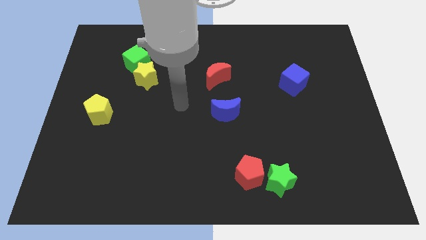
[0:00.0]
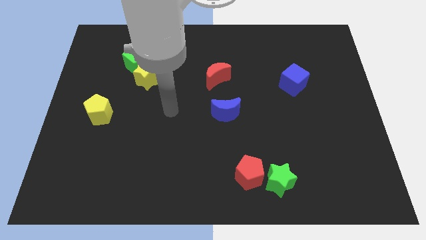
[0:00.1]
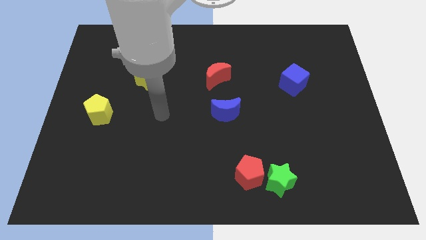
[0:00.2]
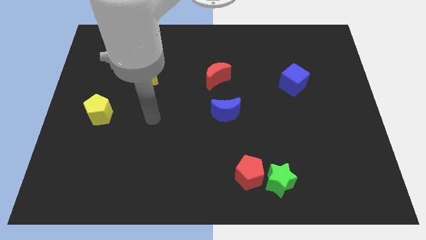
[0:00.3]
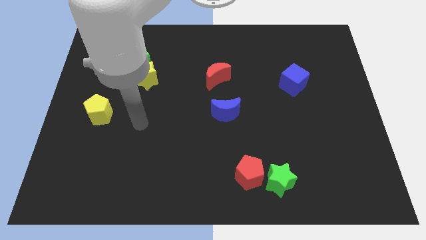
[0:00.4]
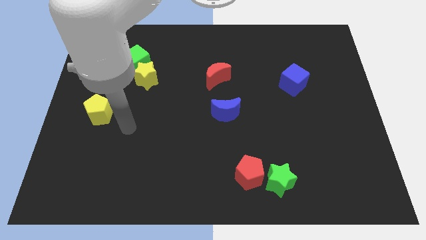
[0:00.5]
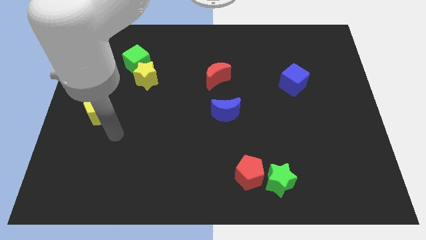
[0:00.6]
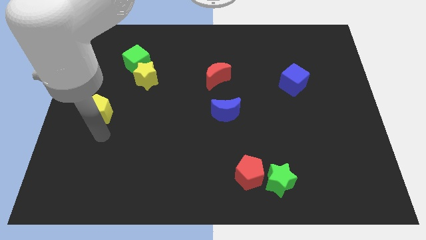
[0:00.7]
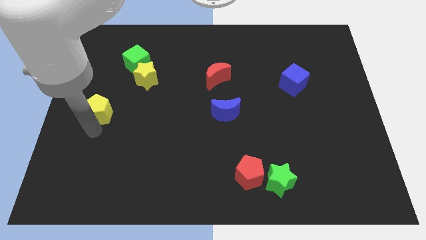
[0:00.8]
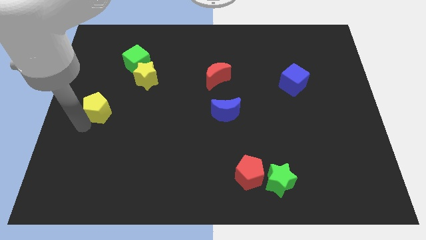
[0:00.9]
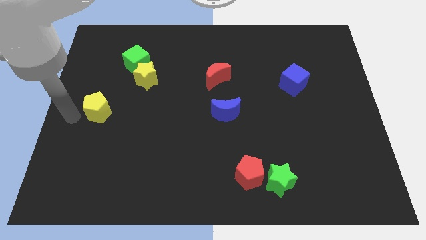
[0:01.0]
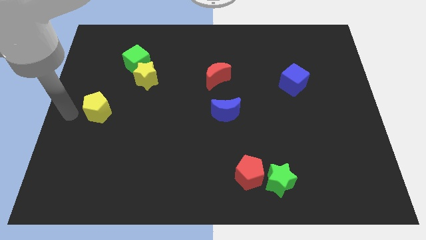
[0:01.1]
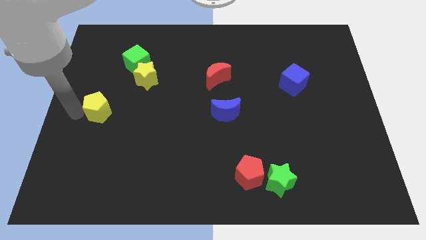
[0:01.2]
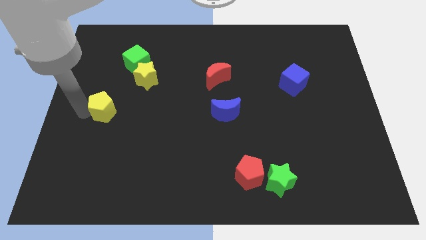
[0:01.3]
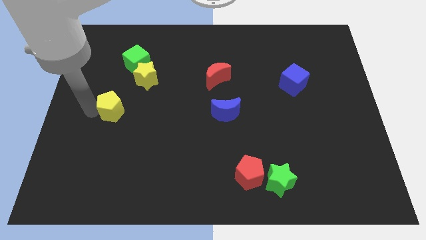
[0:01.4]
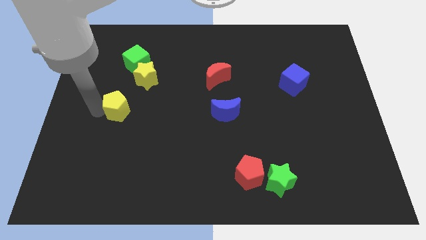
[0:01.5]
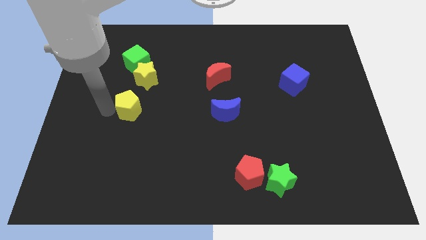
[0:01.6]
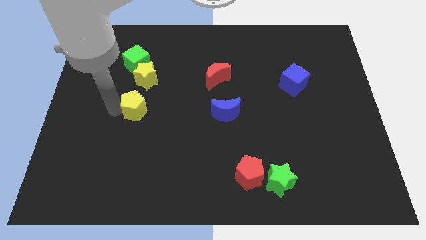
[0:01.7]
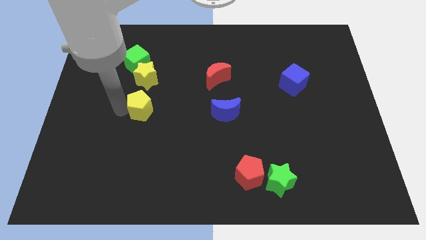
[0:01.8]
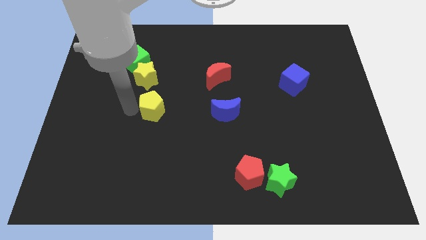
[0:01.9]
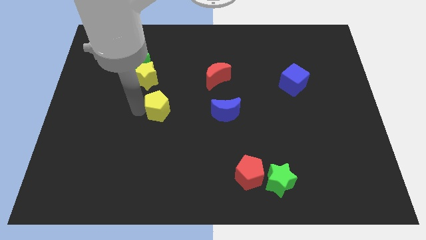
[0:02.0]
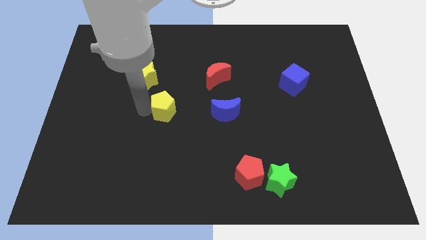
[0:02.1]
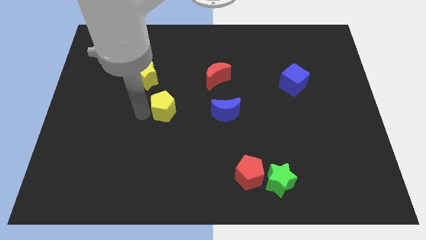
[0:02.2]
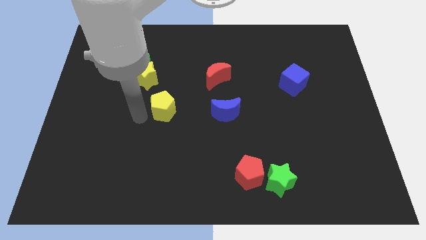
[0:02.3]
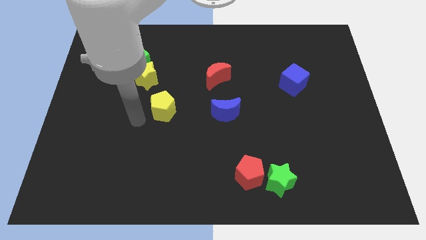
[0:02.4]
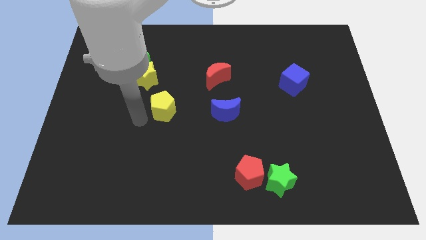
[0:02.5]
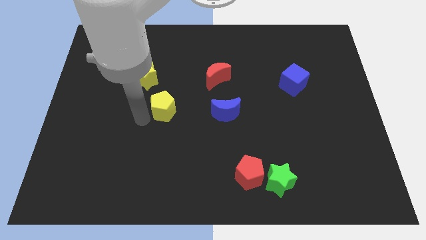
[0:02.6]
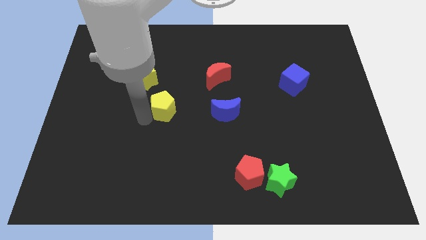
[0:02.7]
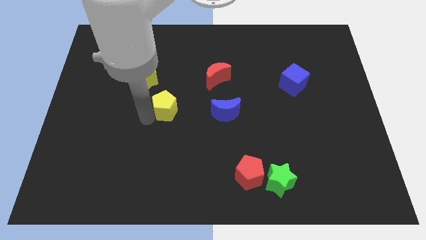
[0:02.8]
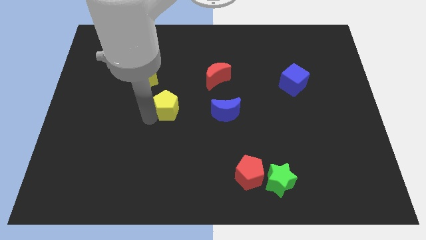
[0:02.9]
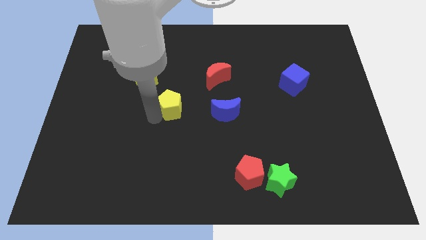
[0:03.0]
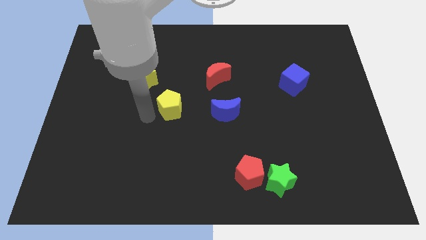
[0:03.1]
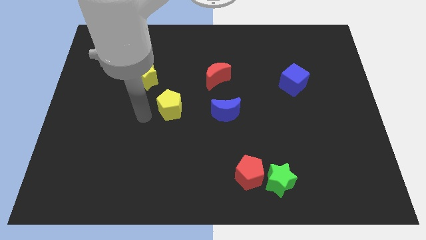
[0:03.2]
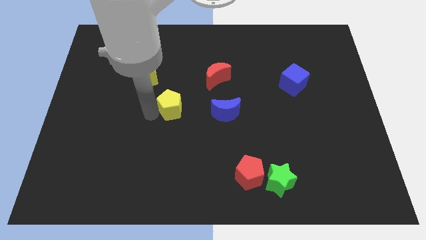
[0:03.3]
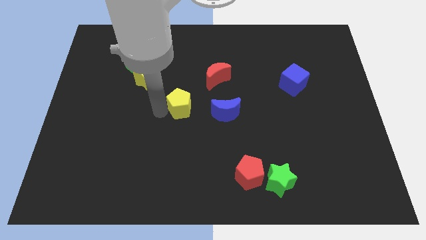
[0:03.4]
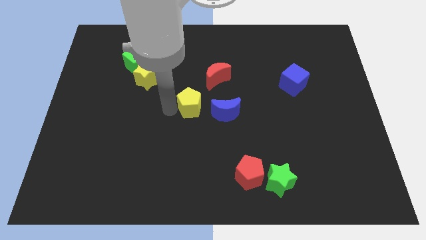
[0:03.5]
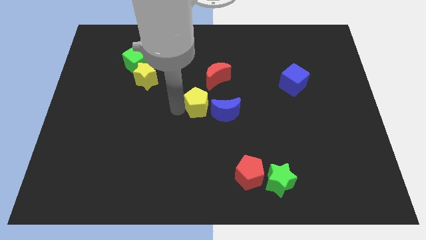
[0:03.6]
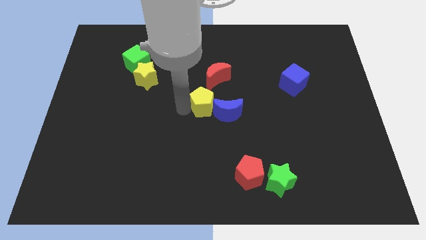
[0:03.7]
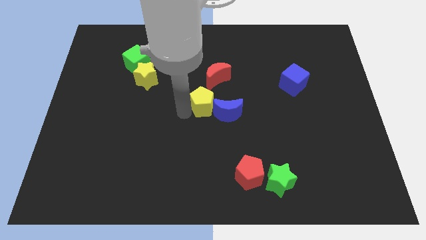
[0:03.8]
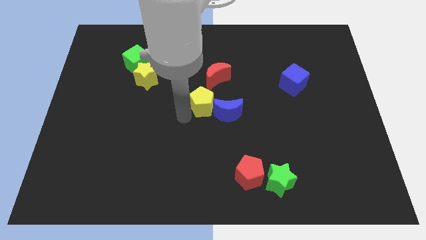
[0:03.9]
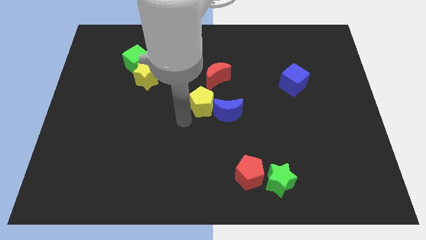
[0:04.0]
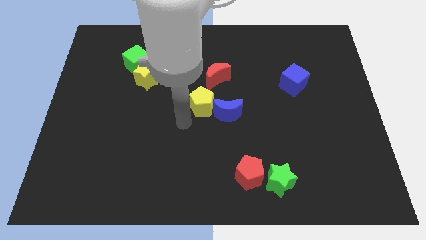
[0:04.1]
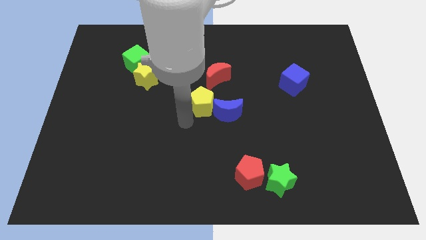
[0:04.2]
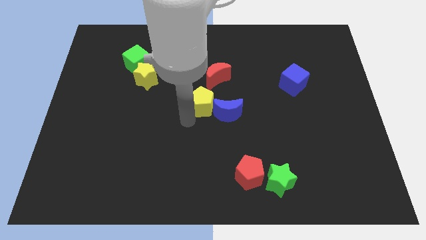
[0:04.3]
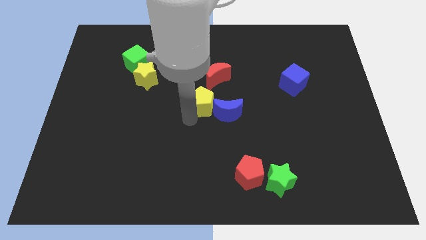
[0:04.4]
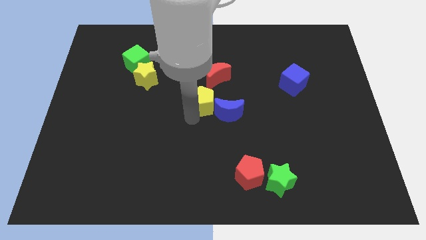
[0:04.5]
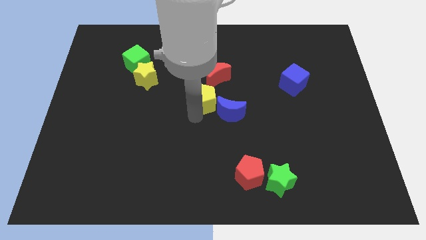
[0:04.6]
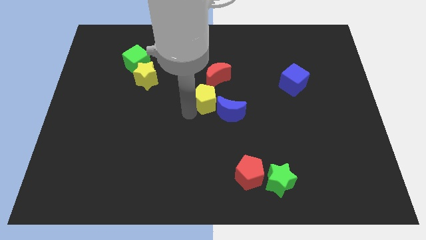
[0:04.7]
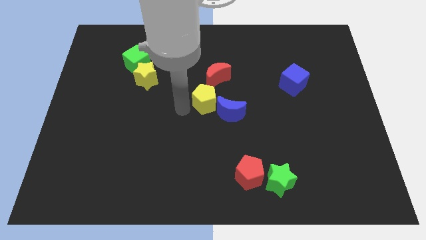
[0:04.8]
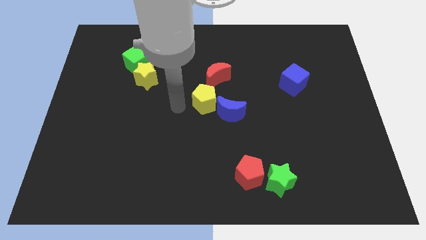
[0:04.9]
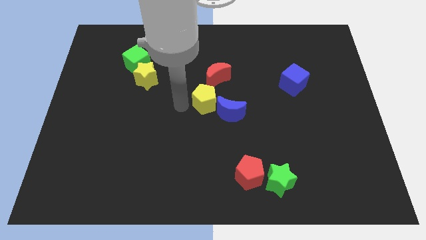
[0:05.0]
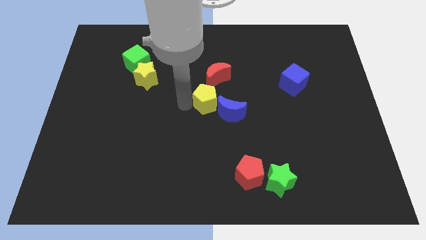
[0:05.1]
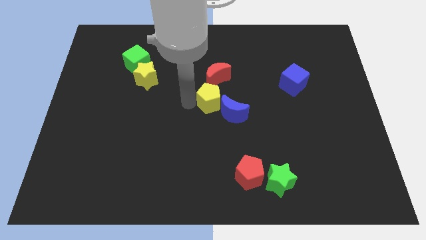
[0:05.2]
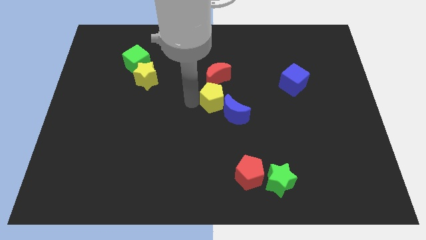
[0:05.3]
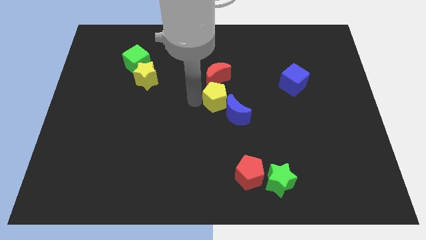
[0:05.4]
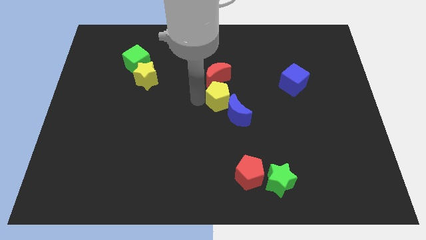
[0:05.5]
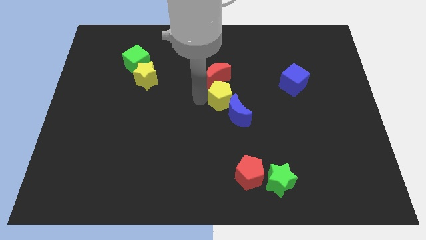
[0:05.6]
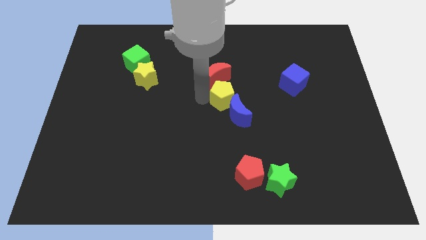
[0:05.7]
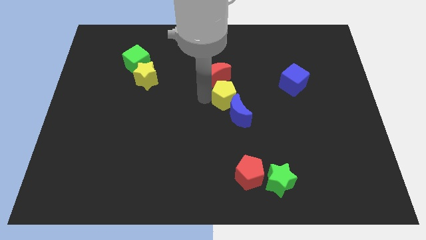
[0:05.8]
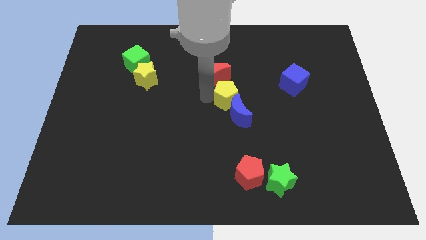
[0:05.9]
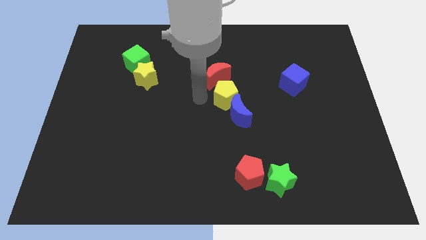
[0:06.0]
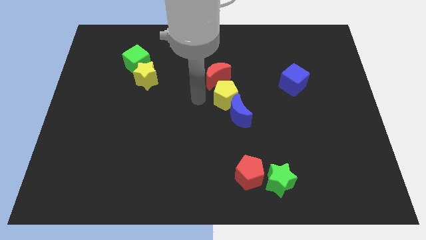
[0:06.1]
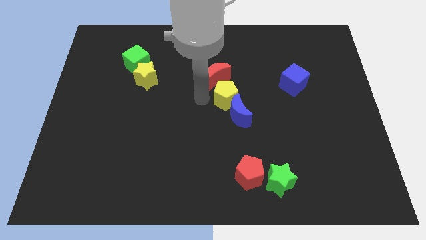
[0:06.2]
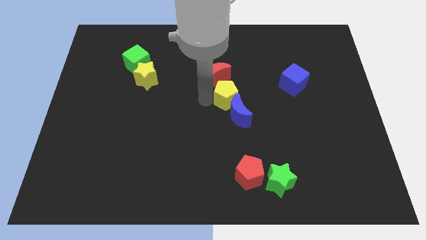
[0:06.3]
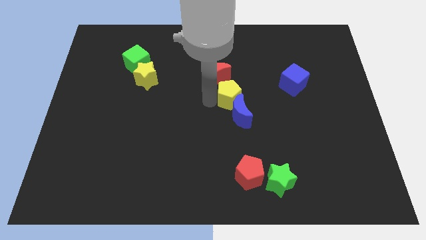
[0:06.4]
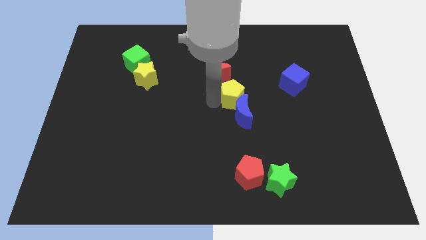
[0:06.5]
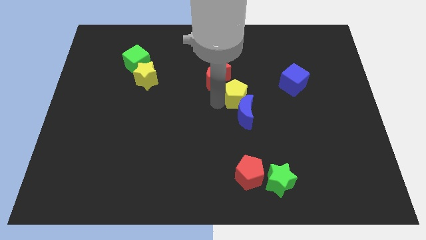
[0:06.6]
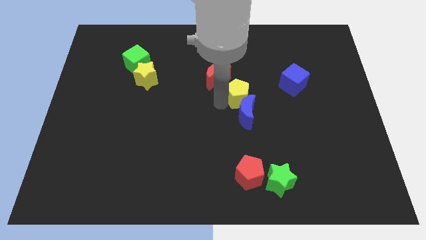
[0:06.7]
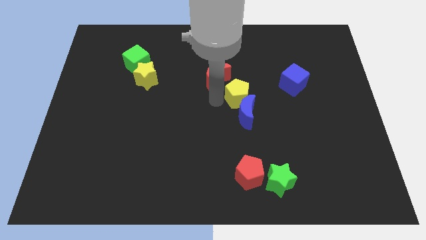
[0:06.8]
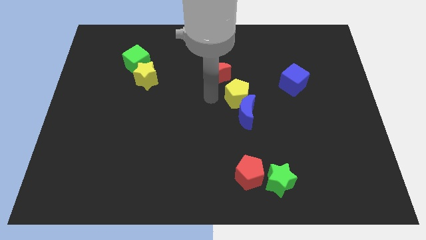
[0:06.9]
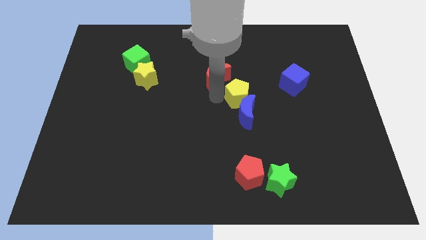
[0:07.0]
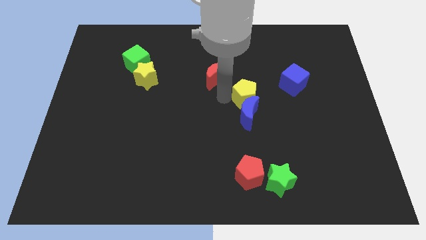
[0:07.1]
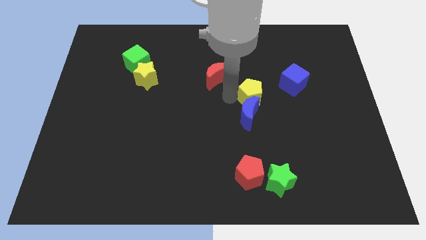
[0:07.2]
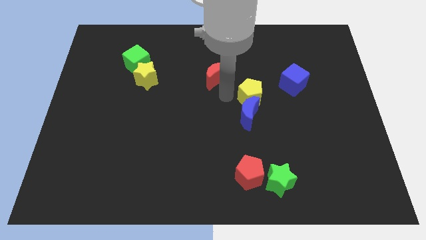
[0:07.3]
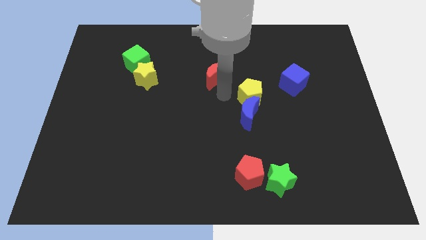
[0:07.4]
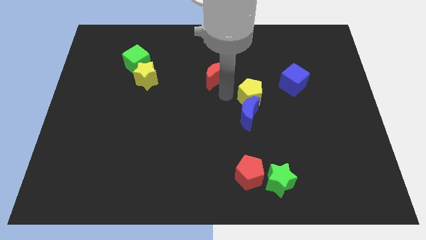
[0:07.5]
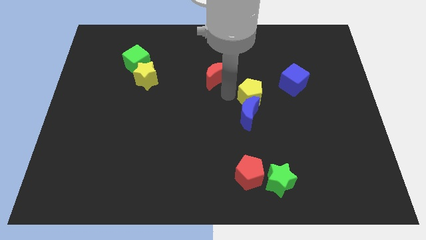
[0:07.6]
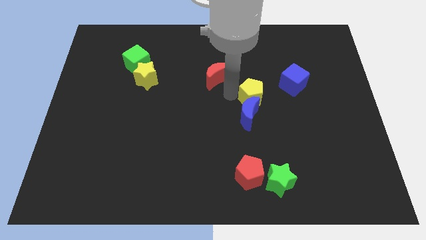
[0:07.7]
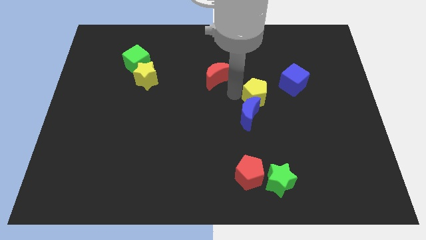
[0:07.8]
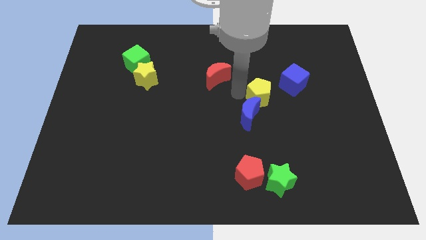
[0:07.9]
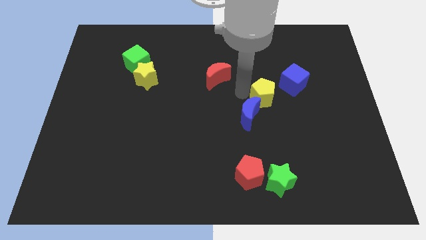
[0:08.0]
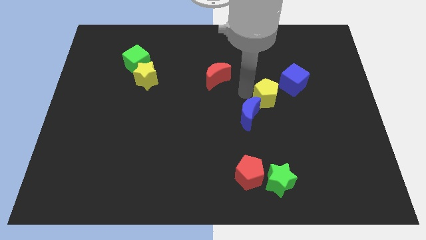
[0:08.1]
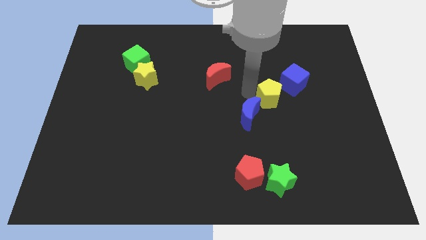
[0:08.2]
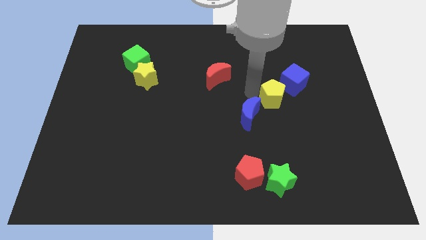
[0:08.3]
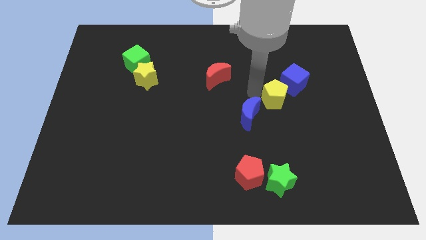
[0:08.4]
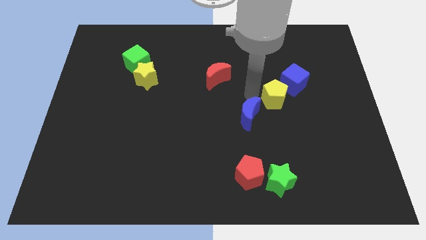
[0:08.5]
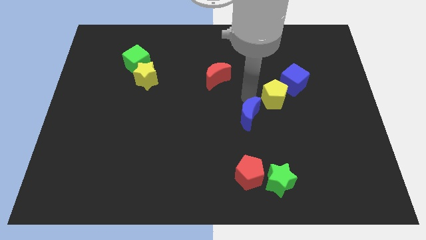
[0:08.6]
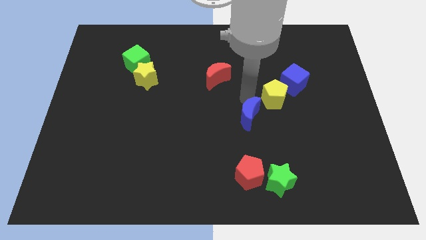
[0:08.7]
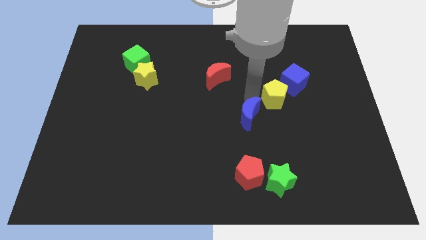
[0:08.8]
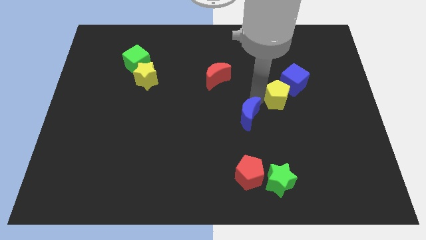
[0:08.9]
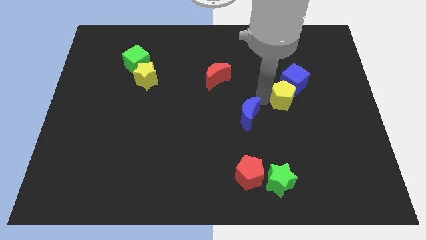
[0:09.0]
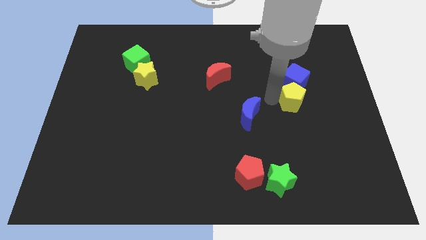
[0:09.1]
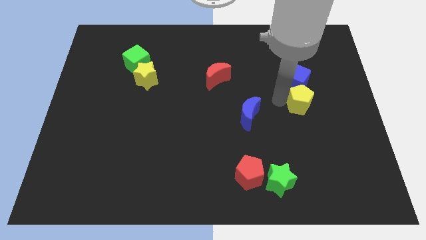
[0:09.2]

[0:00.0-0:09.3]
slide the yellow pentagon to the bottom right of the blue cube
